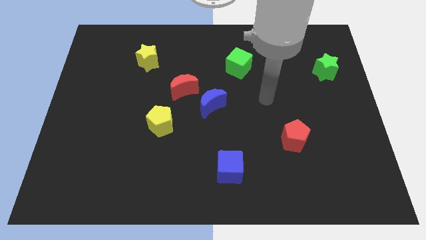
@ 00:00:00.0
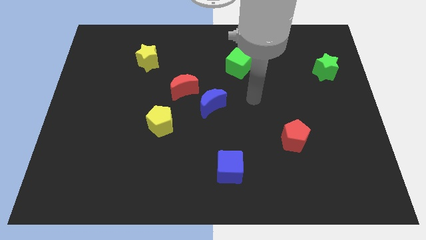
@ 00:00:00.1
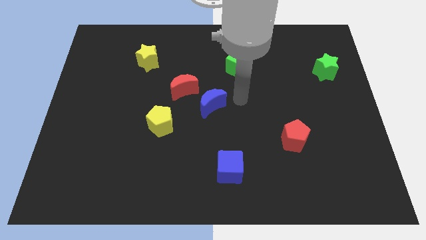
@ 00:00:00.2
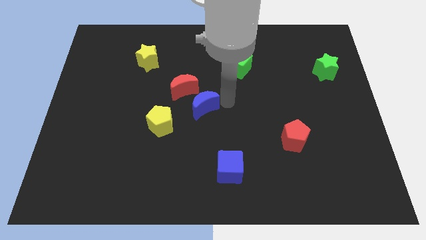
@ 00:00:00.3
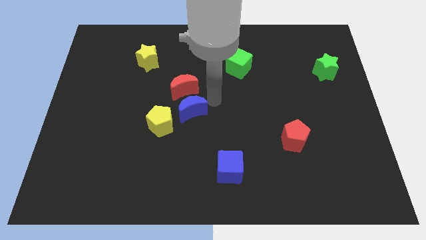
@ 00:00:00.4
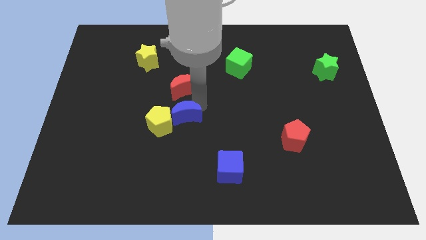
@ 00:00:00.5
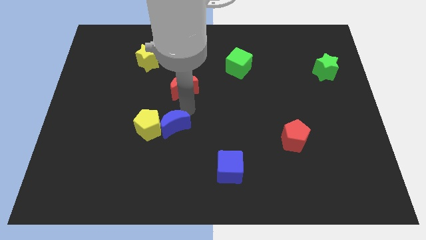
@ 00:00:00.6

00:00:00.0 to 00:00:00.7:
pull the red moon apart from the blue moon

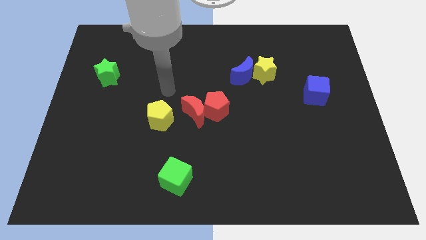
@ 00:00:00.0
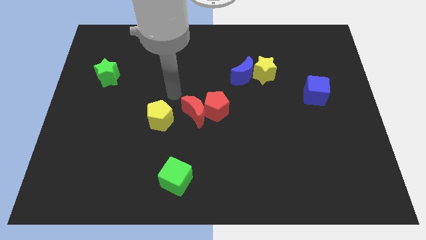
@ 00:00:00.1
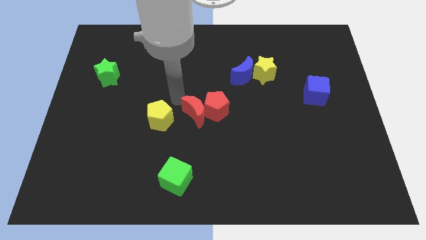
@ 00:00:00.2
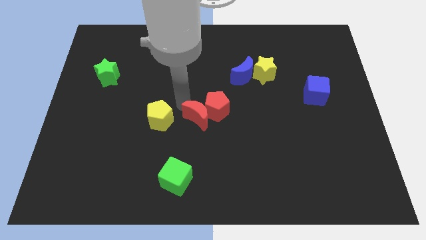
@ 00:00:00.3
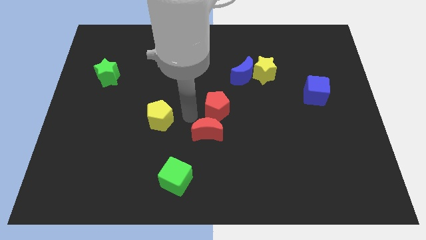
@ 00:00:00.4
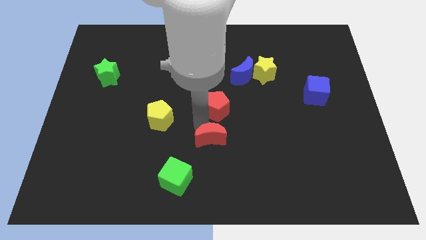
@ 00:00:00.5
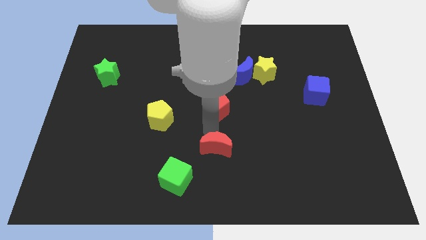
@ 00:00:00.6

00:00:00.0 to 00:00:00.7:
pull the red pentagon apart from the red moon

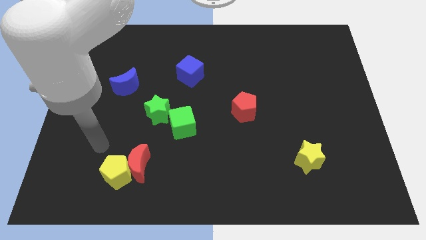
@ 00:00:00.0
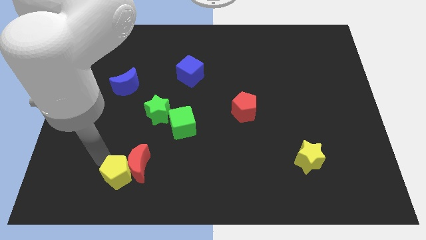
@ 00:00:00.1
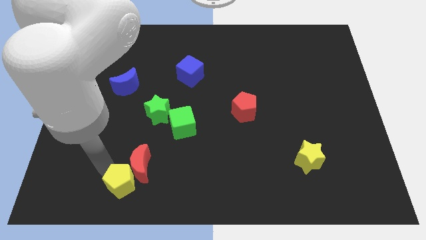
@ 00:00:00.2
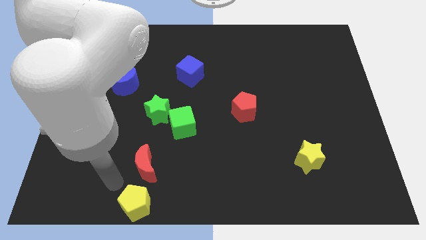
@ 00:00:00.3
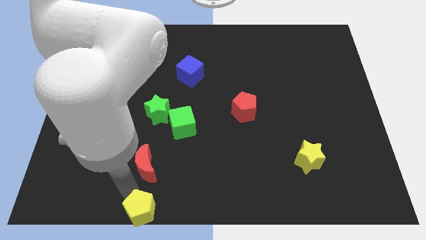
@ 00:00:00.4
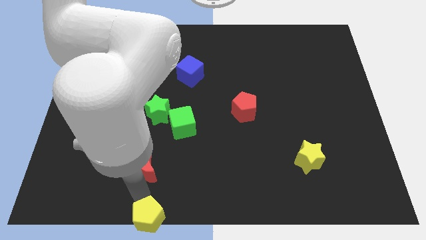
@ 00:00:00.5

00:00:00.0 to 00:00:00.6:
pull the red moon apart from the yellow pentagon

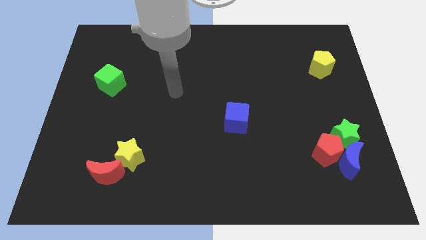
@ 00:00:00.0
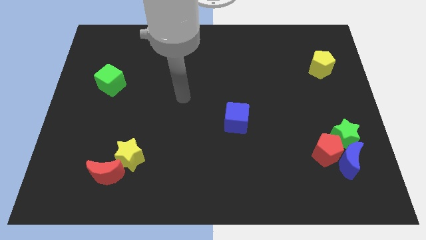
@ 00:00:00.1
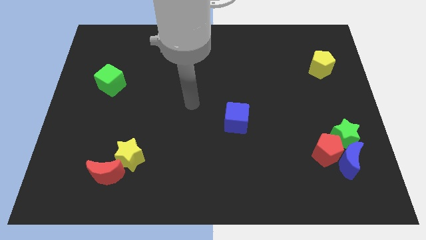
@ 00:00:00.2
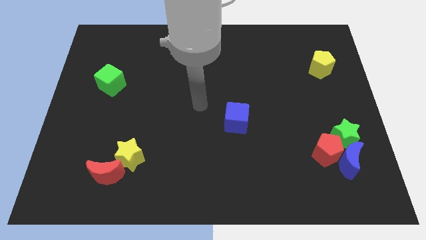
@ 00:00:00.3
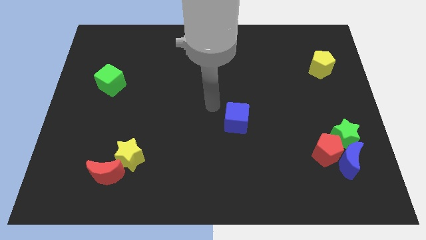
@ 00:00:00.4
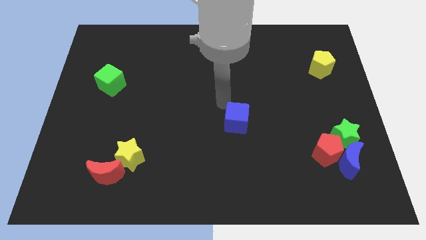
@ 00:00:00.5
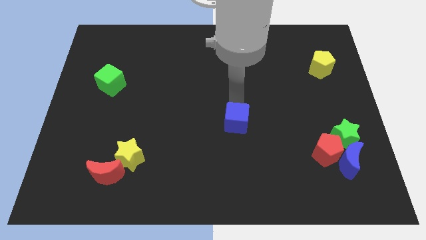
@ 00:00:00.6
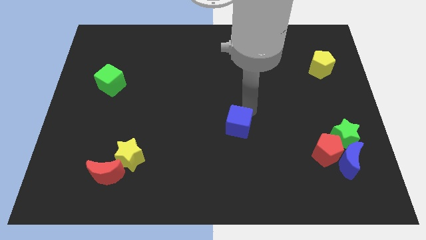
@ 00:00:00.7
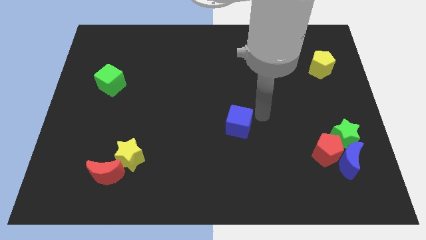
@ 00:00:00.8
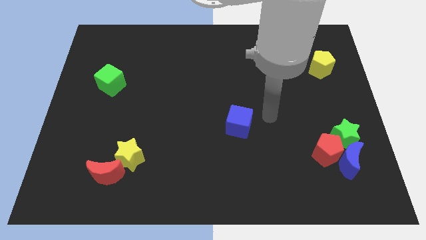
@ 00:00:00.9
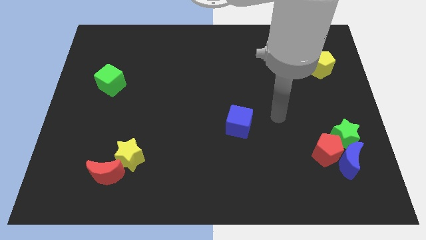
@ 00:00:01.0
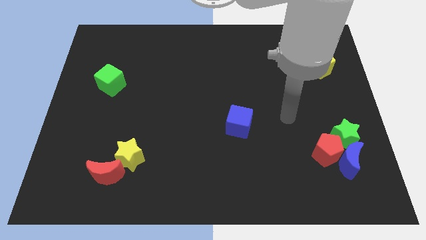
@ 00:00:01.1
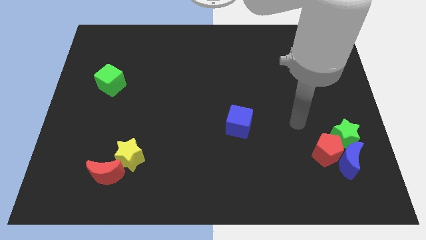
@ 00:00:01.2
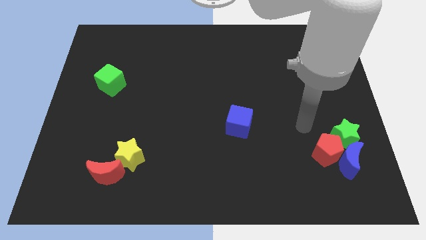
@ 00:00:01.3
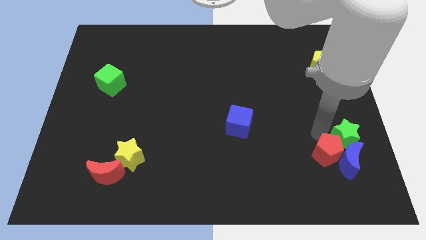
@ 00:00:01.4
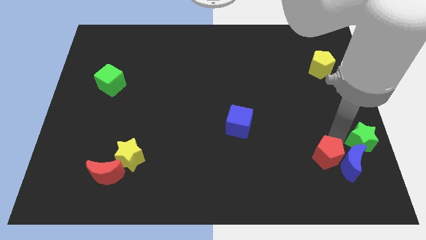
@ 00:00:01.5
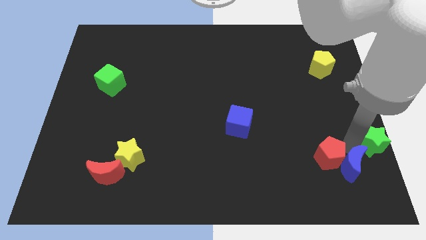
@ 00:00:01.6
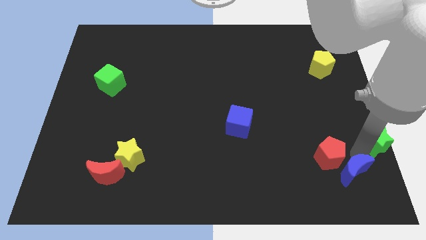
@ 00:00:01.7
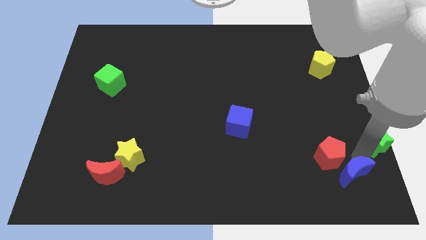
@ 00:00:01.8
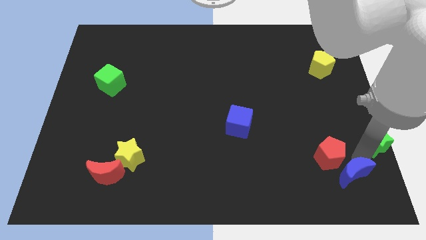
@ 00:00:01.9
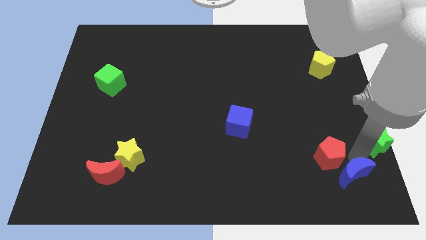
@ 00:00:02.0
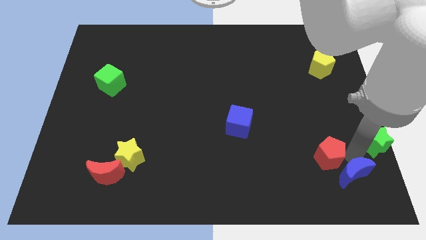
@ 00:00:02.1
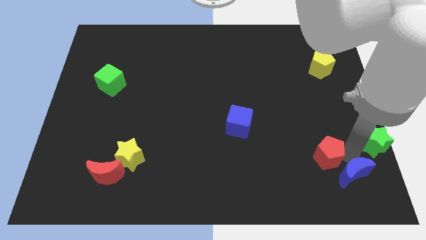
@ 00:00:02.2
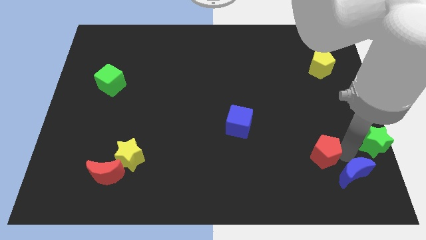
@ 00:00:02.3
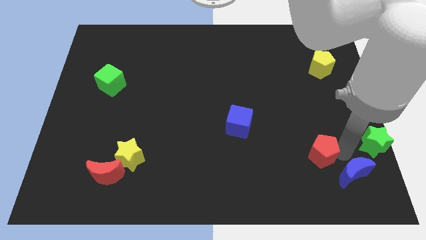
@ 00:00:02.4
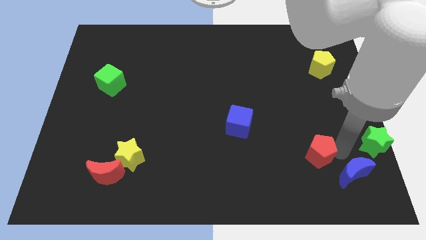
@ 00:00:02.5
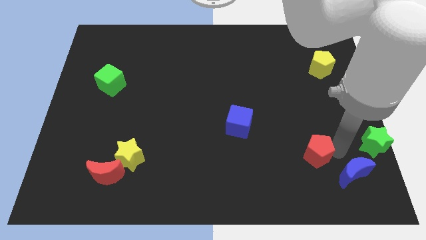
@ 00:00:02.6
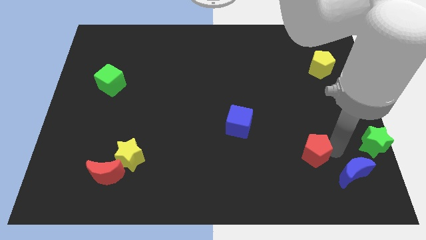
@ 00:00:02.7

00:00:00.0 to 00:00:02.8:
pull the red pentagon apart from the blue moon and green star

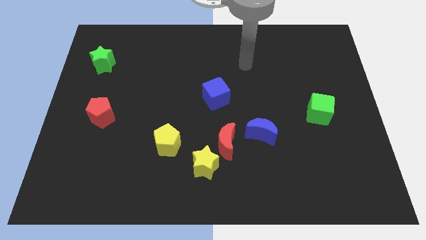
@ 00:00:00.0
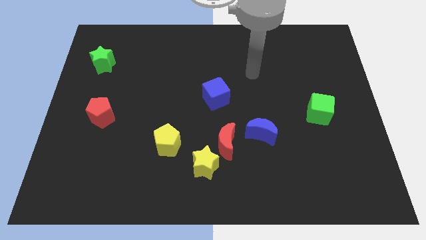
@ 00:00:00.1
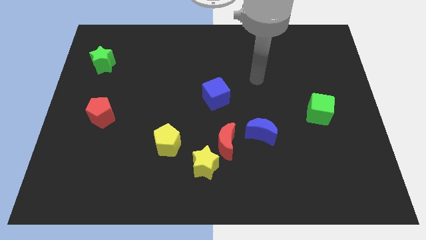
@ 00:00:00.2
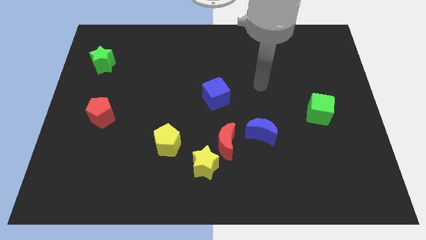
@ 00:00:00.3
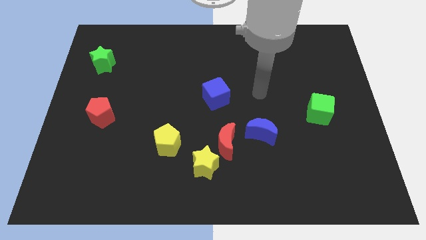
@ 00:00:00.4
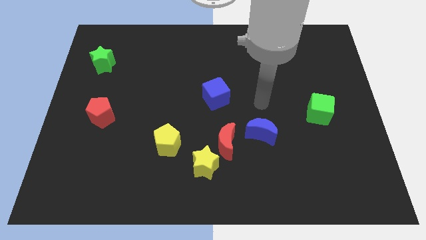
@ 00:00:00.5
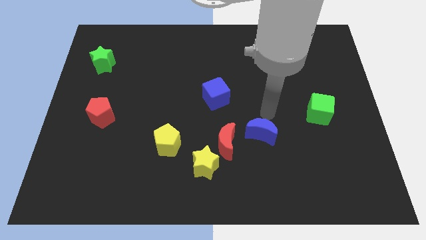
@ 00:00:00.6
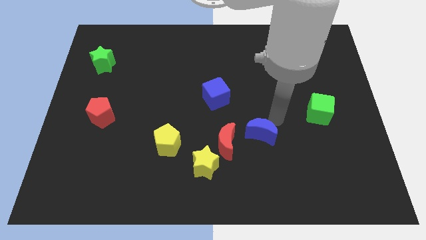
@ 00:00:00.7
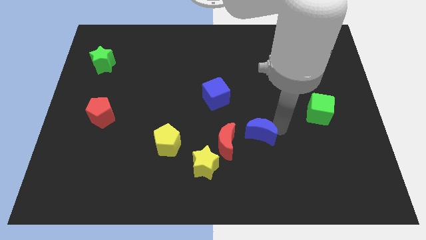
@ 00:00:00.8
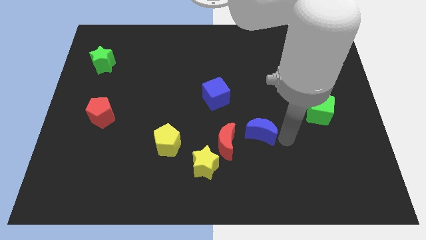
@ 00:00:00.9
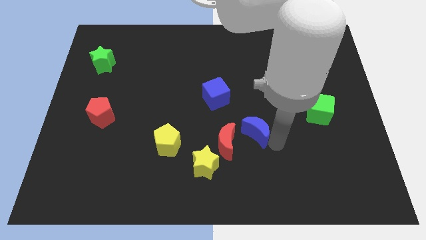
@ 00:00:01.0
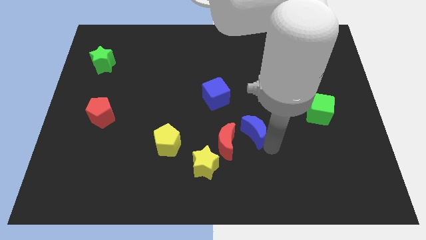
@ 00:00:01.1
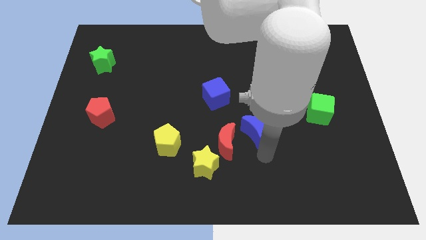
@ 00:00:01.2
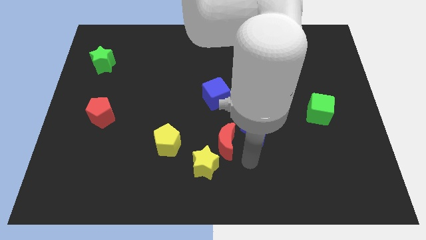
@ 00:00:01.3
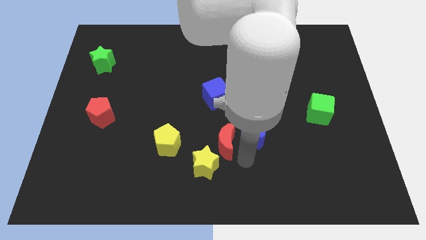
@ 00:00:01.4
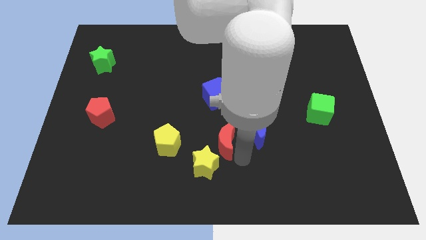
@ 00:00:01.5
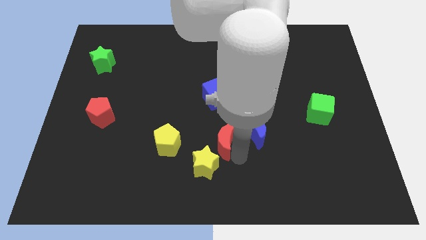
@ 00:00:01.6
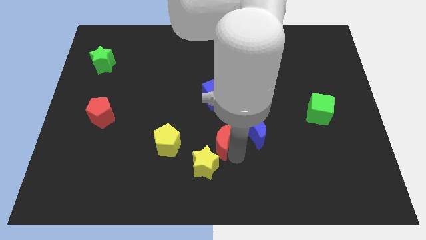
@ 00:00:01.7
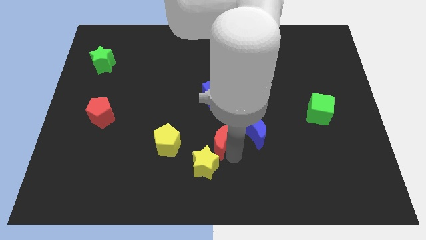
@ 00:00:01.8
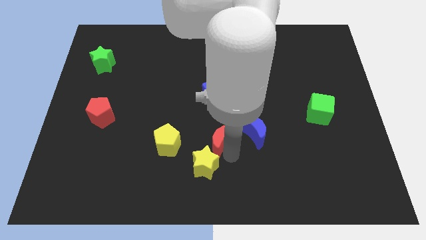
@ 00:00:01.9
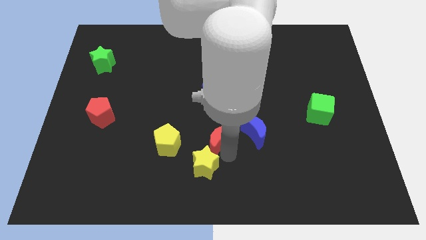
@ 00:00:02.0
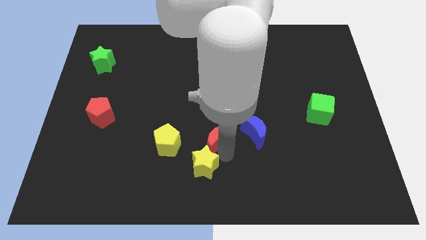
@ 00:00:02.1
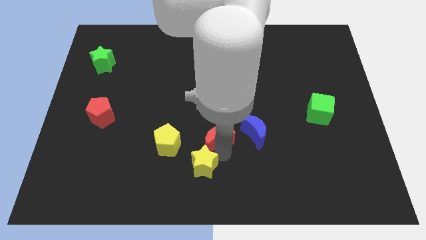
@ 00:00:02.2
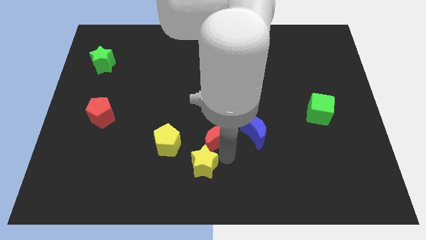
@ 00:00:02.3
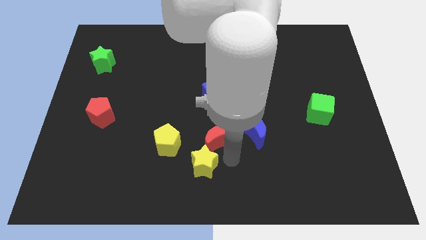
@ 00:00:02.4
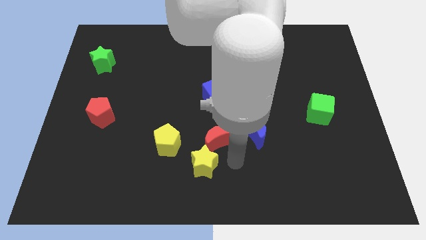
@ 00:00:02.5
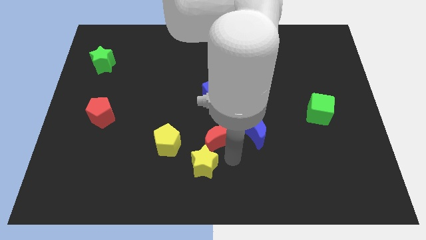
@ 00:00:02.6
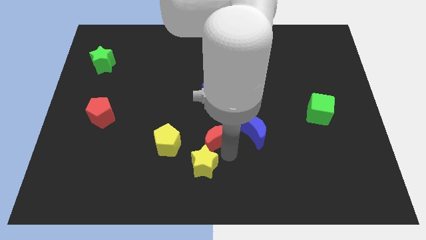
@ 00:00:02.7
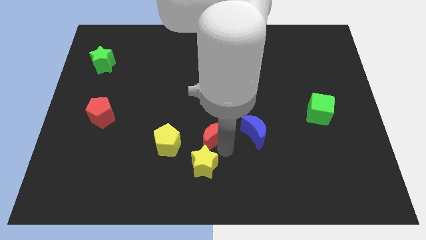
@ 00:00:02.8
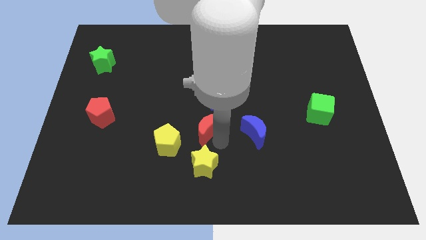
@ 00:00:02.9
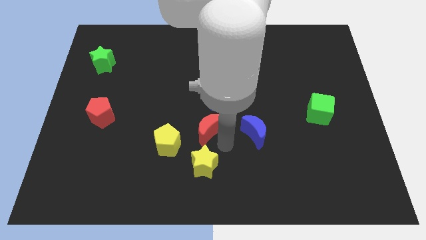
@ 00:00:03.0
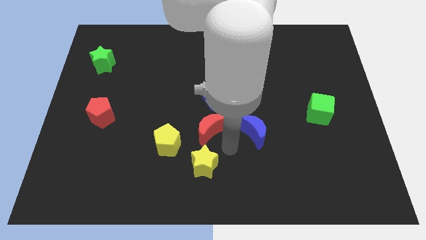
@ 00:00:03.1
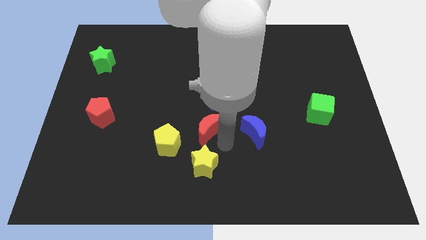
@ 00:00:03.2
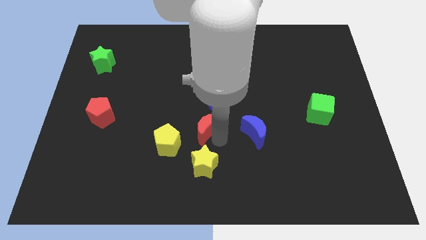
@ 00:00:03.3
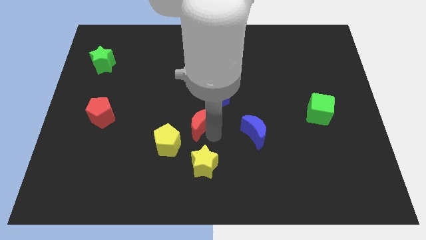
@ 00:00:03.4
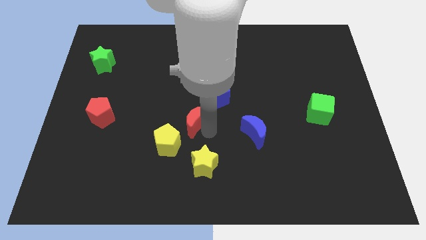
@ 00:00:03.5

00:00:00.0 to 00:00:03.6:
pull the red moon apart from the yellow star and blue moon

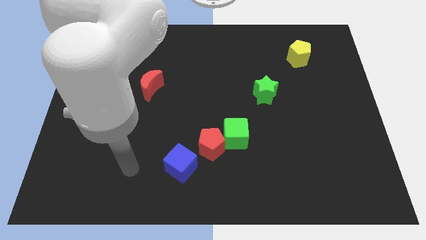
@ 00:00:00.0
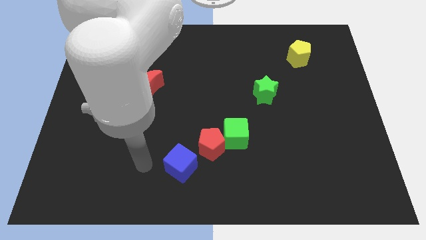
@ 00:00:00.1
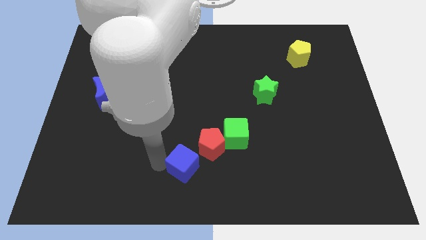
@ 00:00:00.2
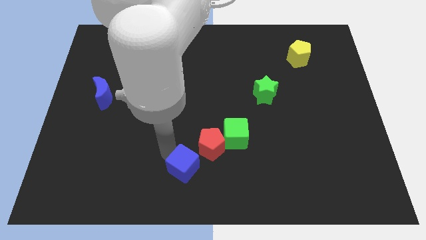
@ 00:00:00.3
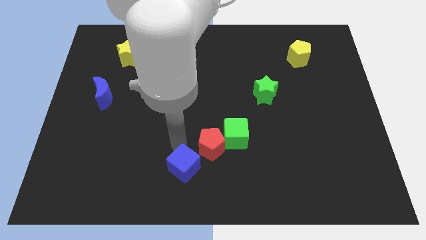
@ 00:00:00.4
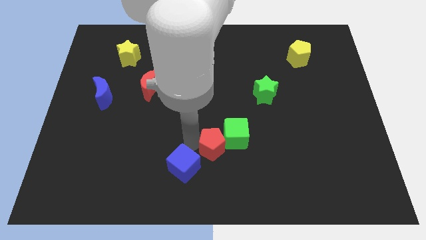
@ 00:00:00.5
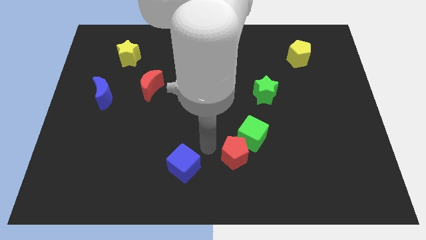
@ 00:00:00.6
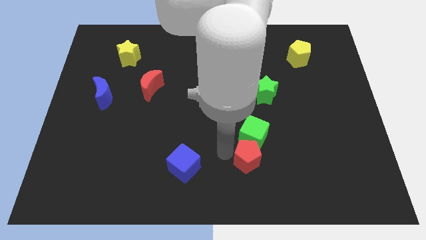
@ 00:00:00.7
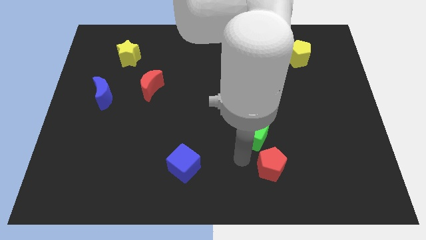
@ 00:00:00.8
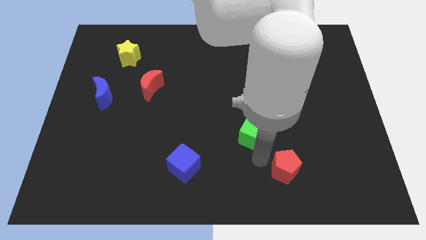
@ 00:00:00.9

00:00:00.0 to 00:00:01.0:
move the green cube away from the red pentagon
